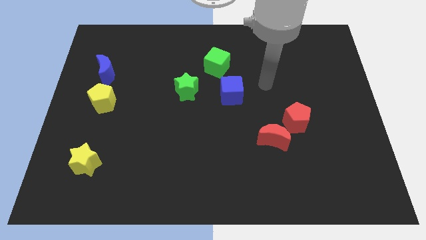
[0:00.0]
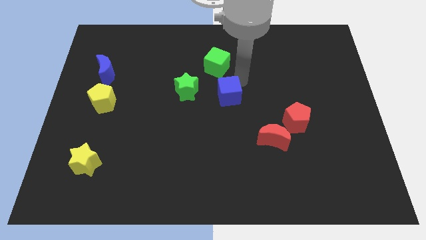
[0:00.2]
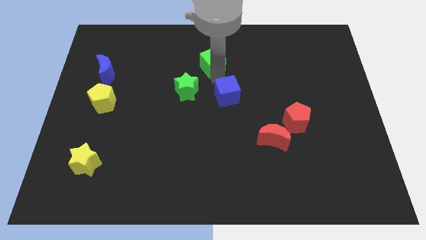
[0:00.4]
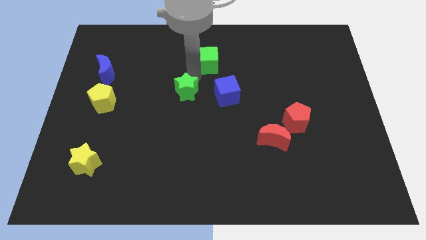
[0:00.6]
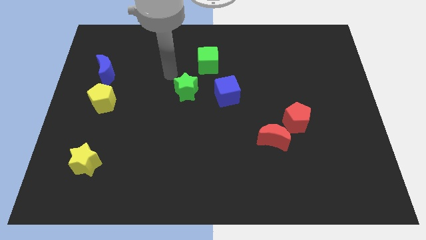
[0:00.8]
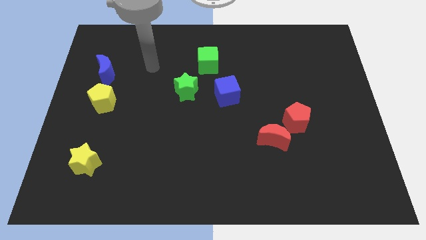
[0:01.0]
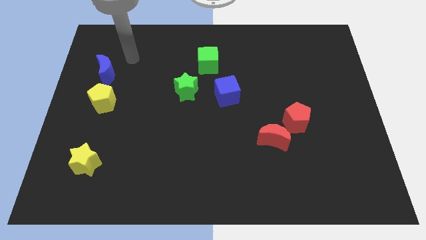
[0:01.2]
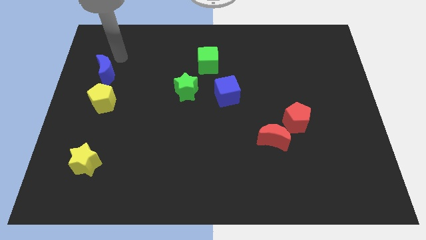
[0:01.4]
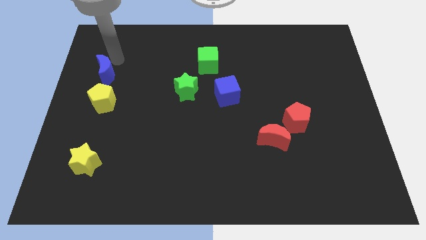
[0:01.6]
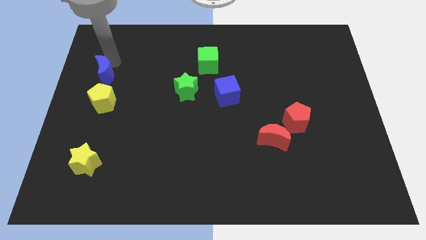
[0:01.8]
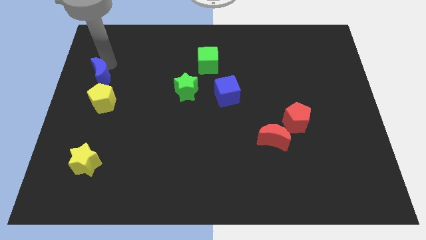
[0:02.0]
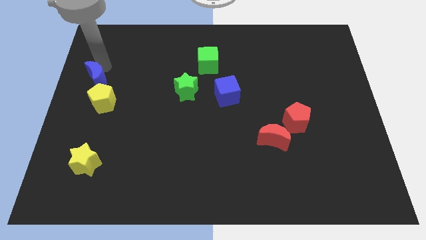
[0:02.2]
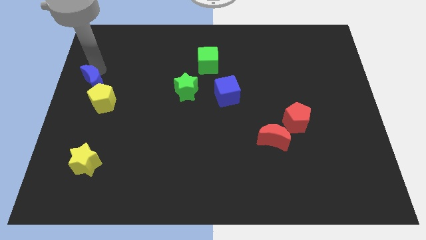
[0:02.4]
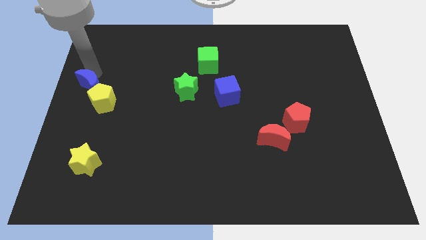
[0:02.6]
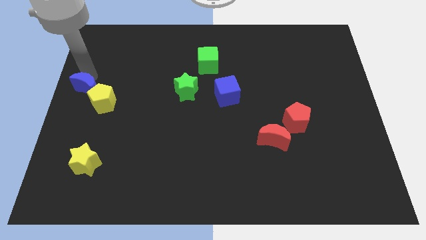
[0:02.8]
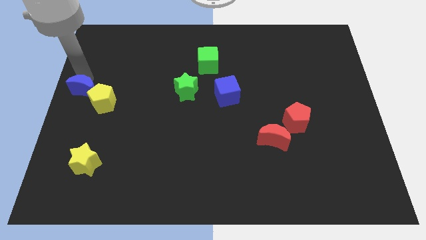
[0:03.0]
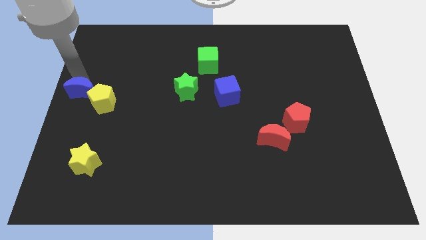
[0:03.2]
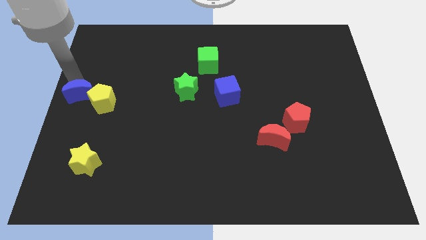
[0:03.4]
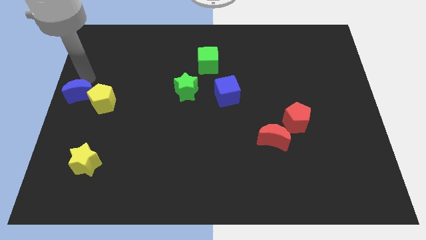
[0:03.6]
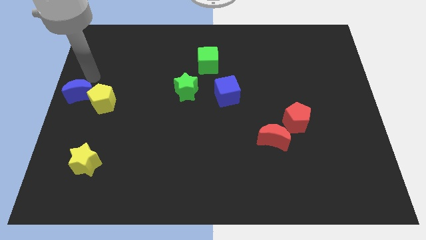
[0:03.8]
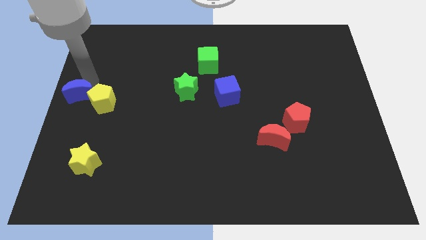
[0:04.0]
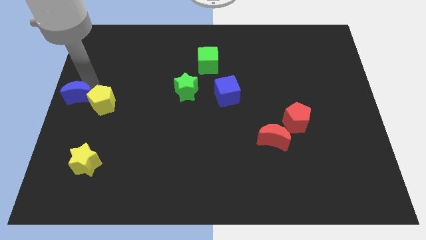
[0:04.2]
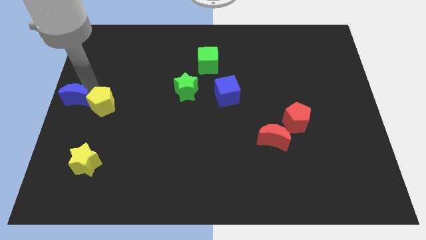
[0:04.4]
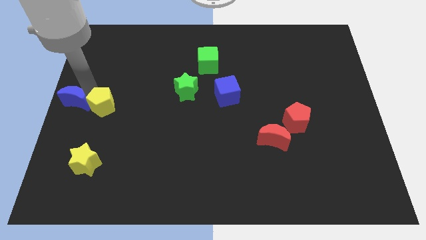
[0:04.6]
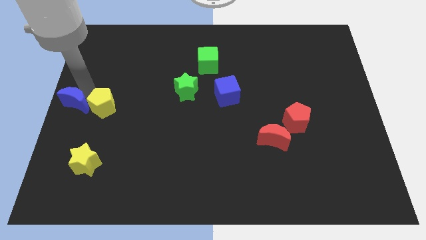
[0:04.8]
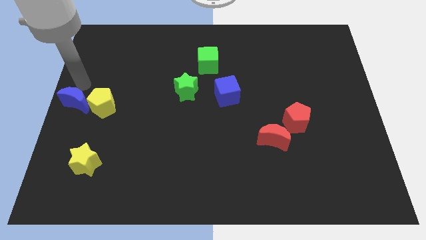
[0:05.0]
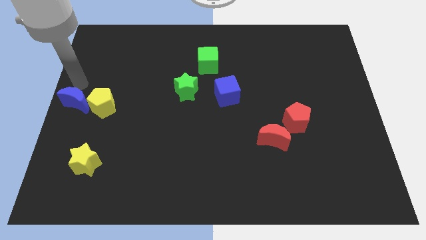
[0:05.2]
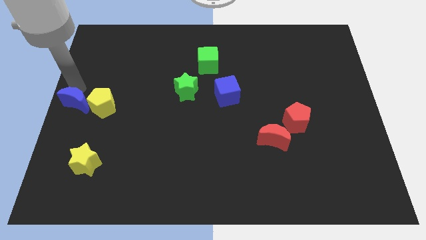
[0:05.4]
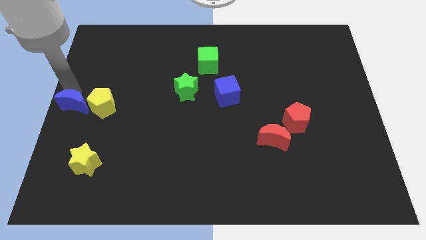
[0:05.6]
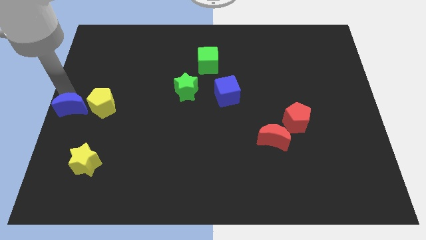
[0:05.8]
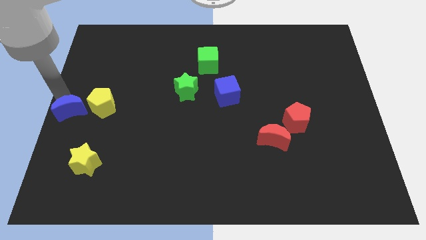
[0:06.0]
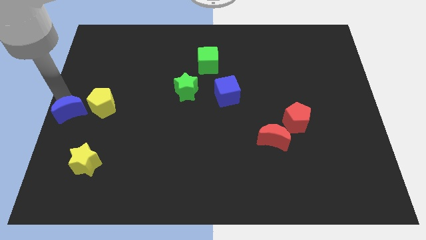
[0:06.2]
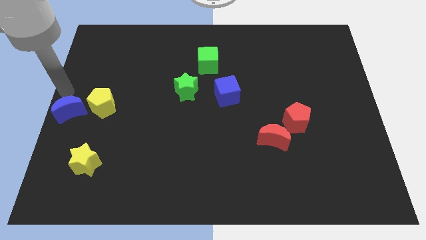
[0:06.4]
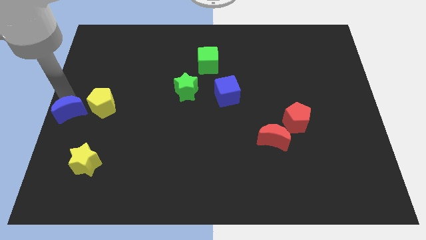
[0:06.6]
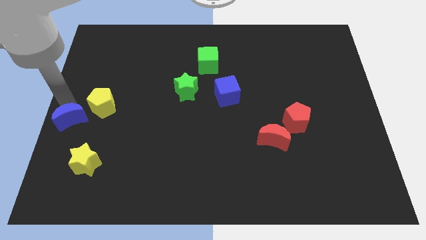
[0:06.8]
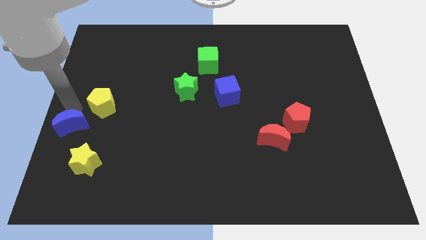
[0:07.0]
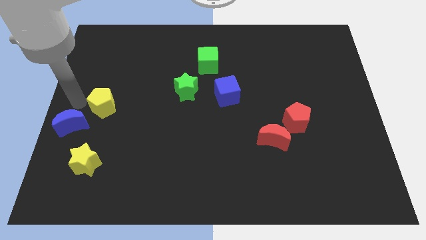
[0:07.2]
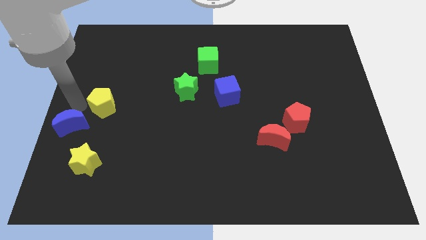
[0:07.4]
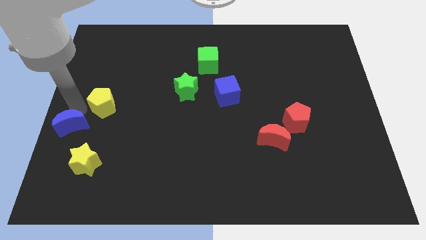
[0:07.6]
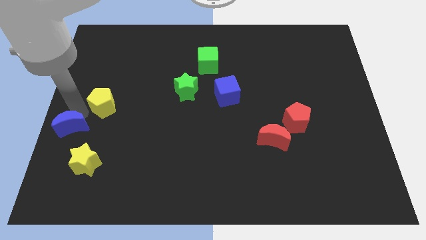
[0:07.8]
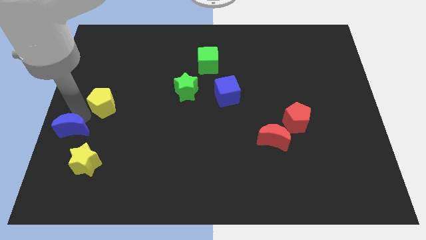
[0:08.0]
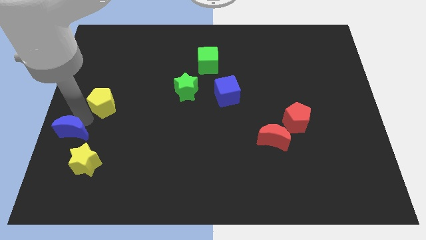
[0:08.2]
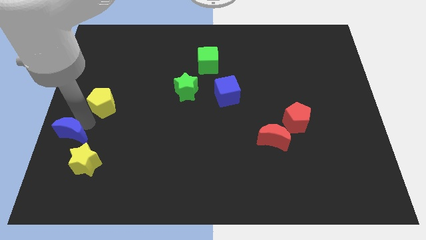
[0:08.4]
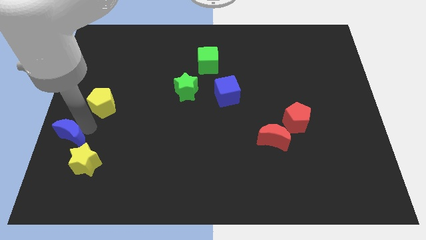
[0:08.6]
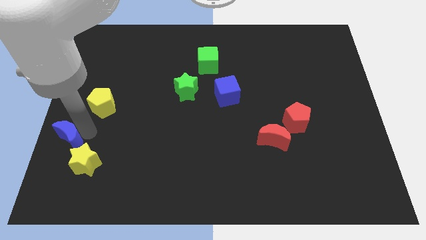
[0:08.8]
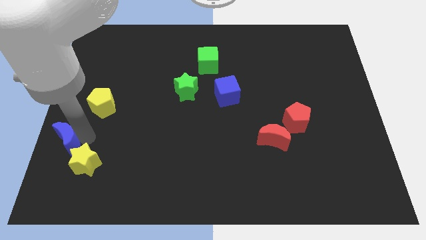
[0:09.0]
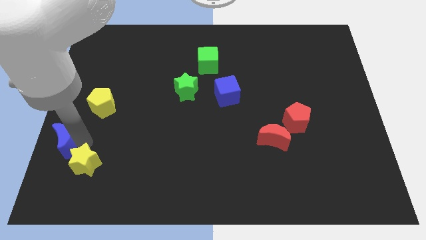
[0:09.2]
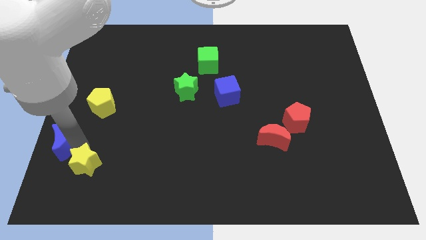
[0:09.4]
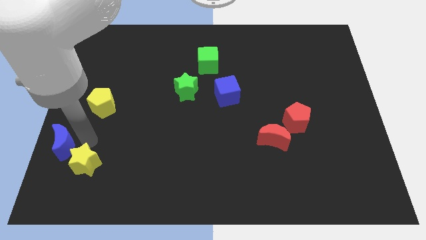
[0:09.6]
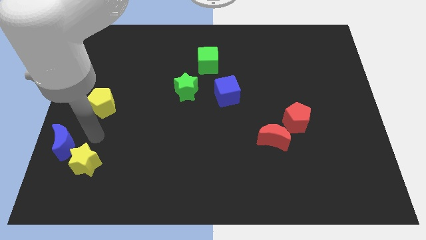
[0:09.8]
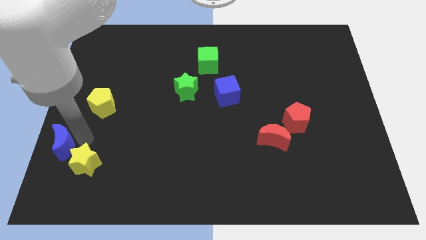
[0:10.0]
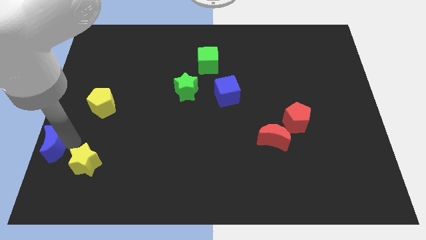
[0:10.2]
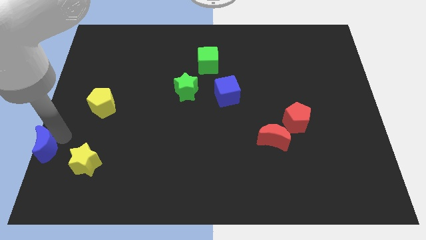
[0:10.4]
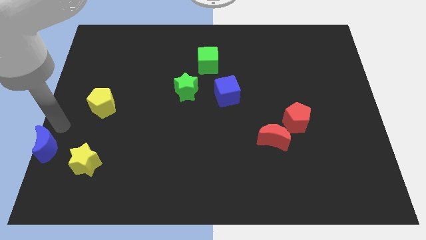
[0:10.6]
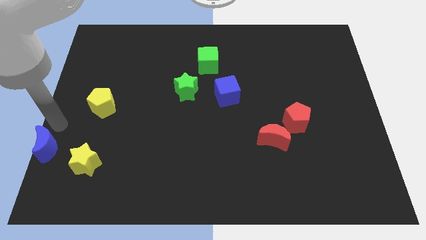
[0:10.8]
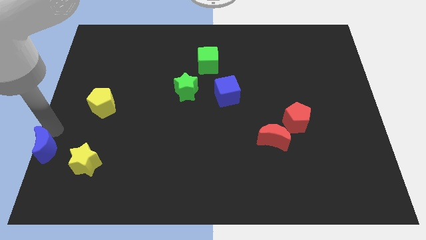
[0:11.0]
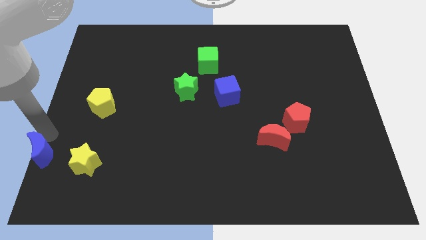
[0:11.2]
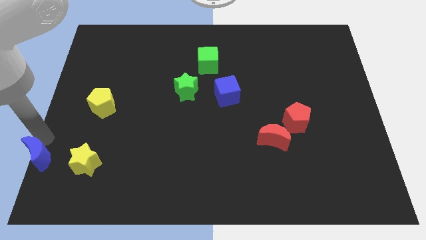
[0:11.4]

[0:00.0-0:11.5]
push the blue moon to the lower left corner

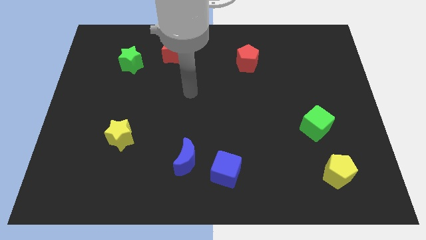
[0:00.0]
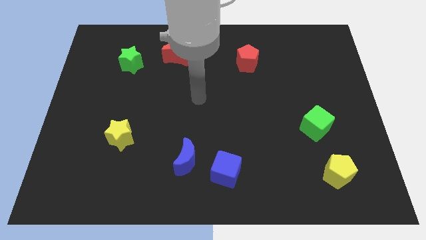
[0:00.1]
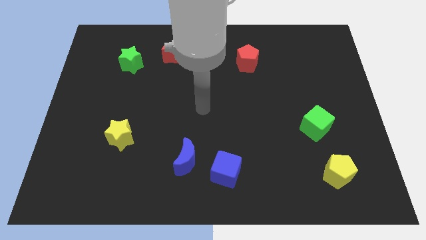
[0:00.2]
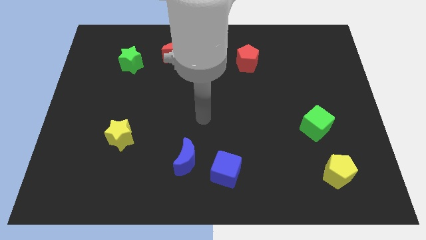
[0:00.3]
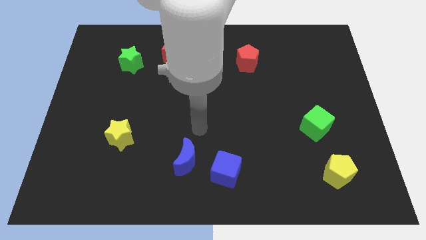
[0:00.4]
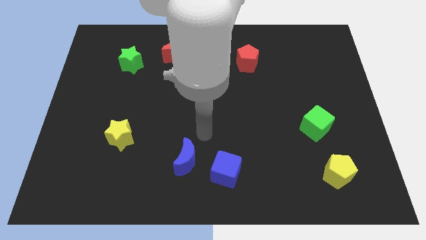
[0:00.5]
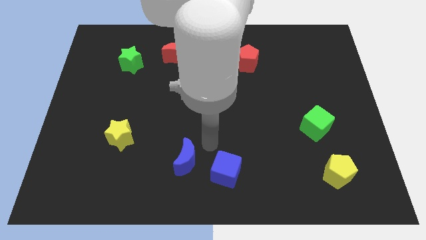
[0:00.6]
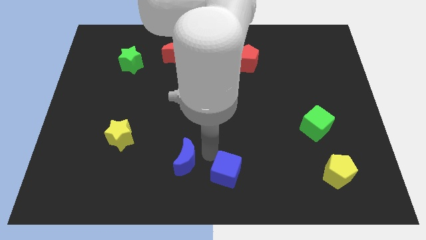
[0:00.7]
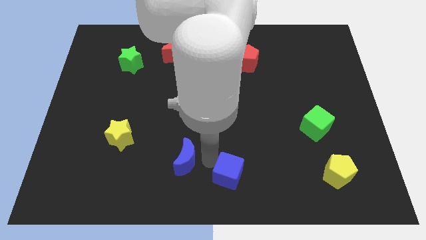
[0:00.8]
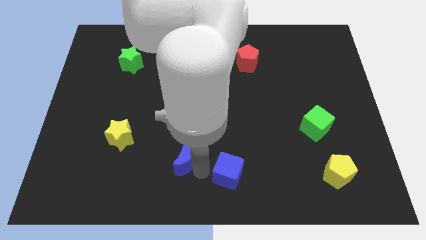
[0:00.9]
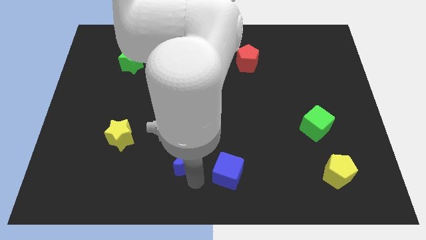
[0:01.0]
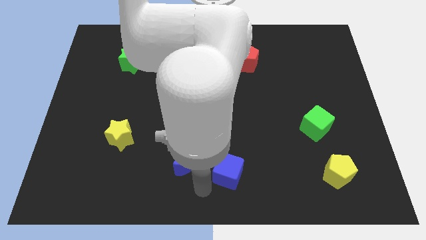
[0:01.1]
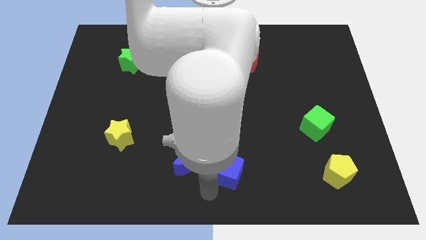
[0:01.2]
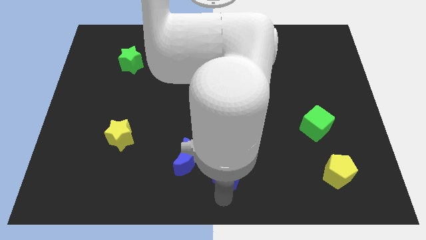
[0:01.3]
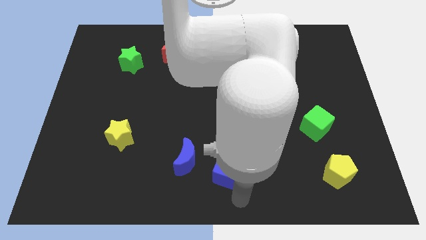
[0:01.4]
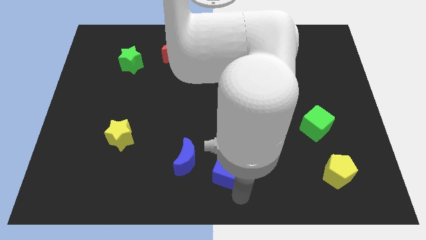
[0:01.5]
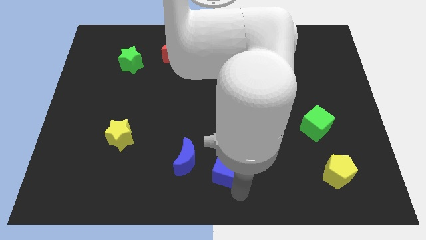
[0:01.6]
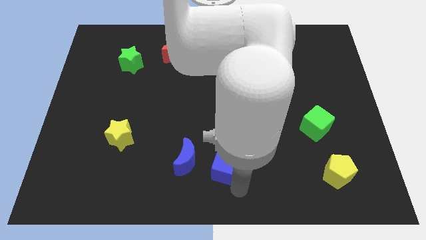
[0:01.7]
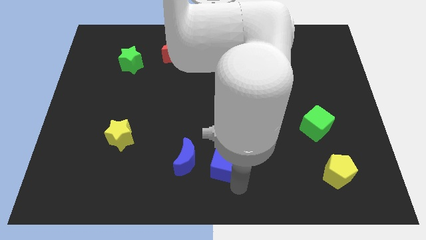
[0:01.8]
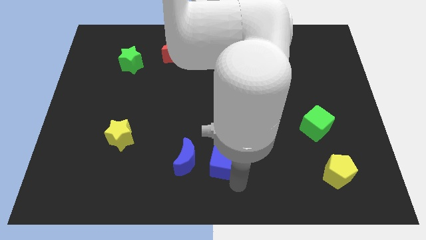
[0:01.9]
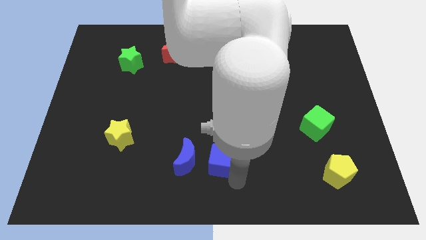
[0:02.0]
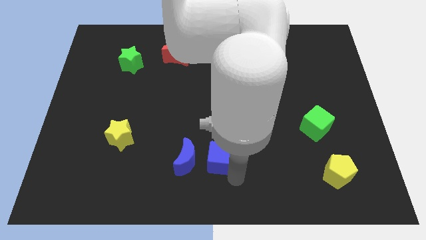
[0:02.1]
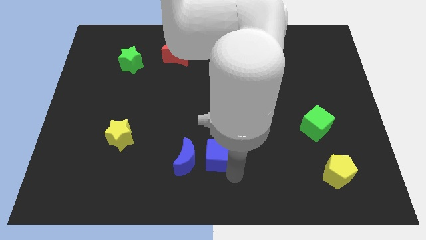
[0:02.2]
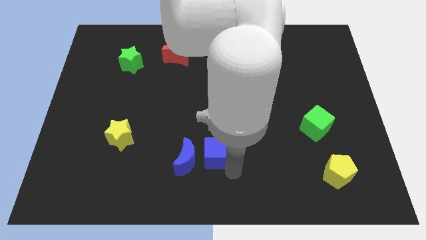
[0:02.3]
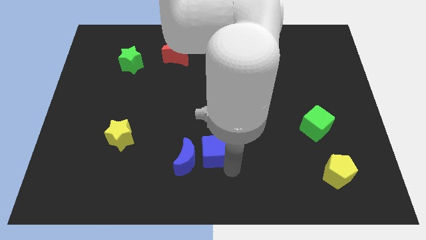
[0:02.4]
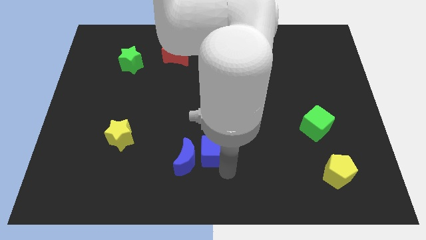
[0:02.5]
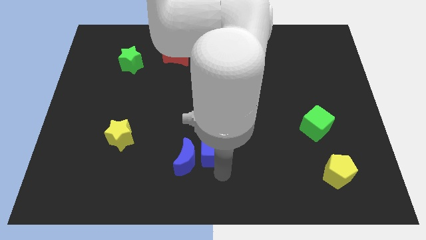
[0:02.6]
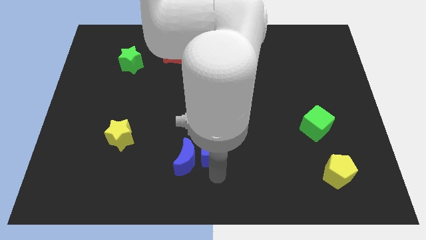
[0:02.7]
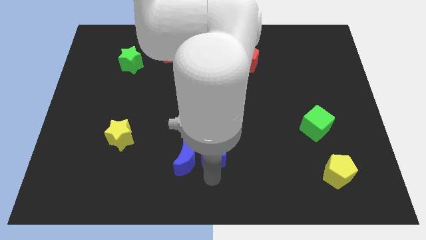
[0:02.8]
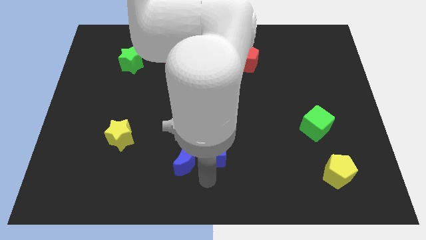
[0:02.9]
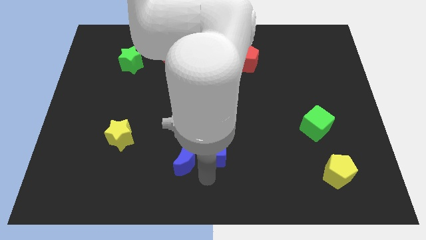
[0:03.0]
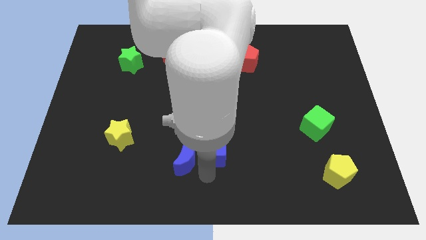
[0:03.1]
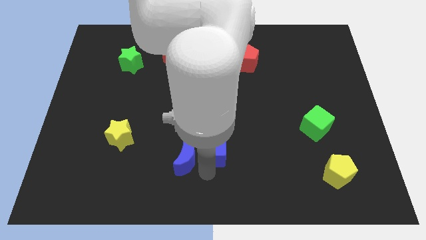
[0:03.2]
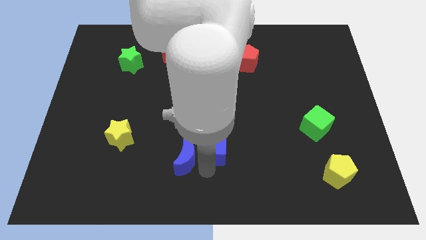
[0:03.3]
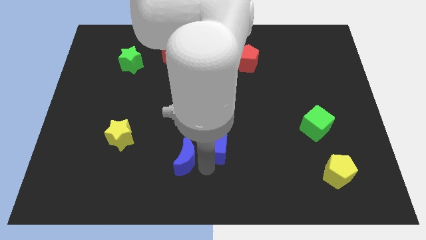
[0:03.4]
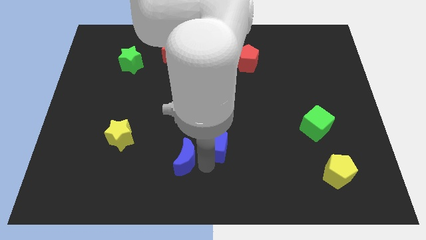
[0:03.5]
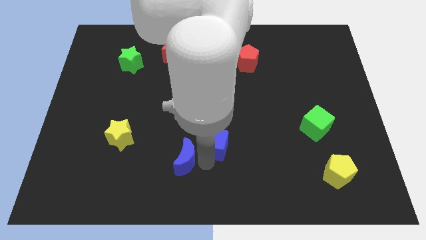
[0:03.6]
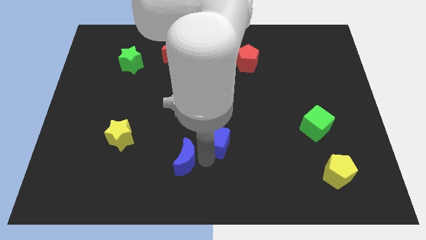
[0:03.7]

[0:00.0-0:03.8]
move the blue cube to the middle of the board
